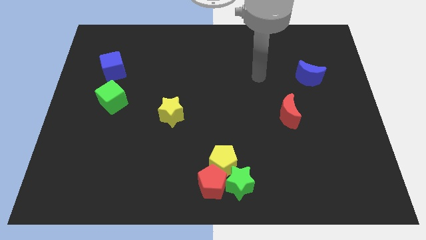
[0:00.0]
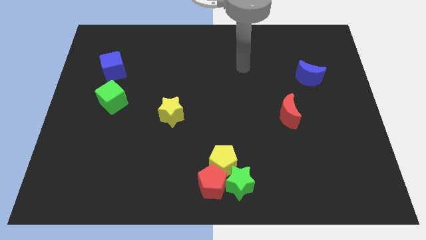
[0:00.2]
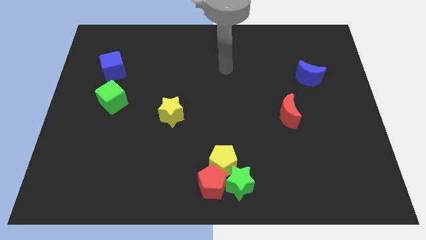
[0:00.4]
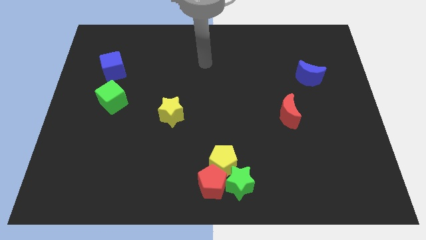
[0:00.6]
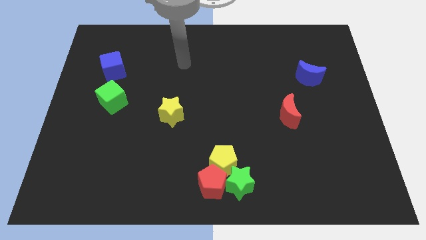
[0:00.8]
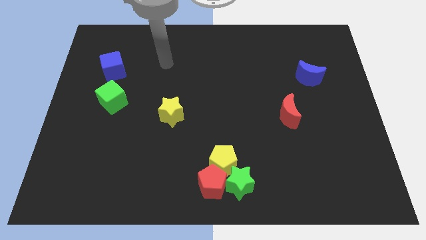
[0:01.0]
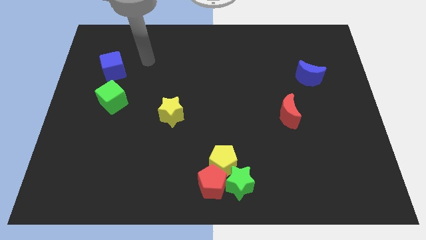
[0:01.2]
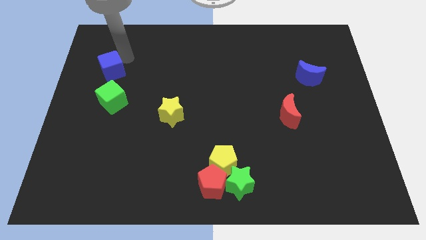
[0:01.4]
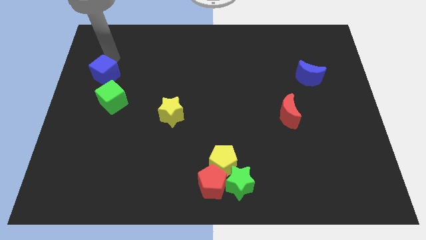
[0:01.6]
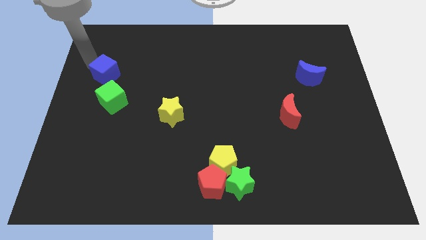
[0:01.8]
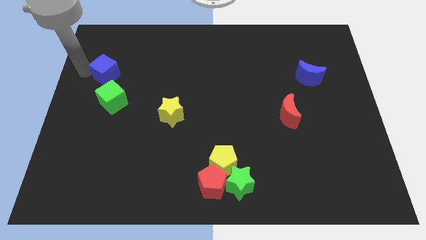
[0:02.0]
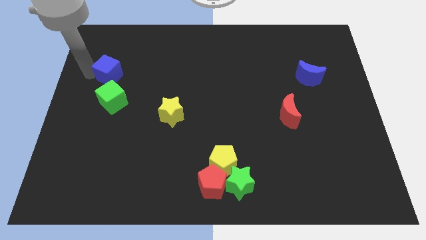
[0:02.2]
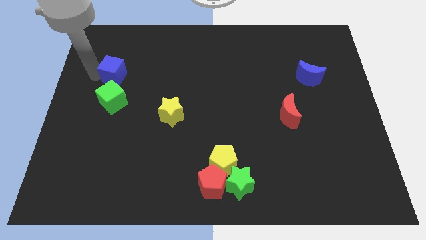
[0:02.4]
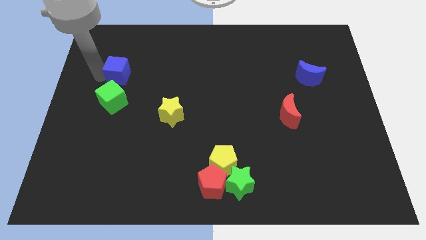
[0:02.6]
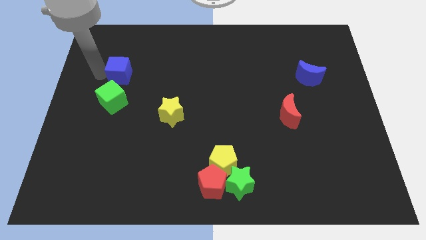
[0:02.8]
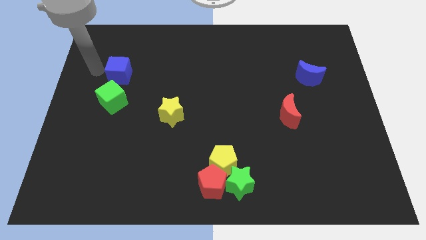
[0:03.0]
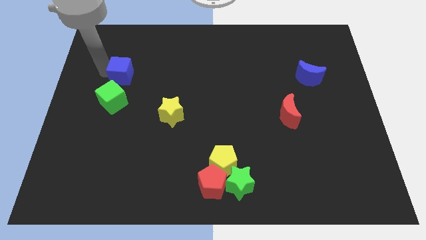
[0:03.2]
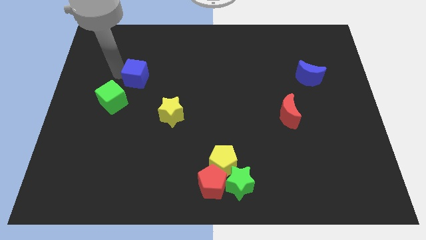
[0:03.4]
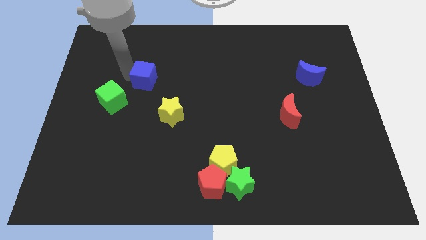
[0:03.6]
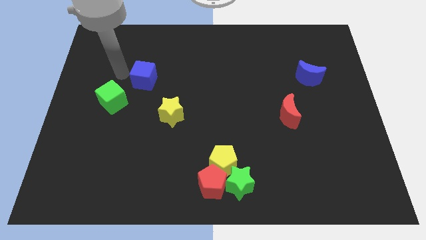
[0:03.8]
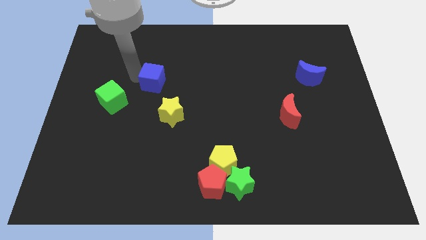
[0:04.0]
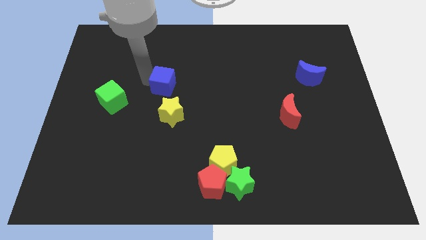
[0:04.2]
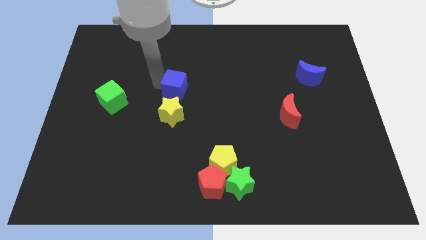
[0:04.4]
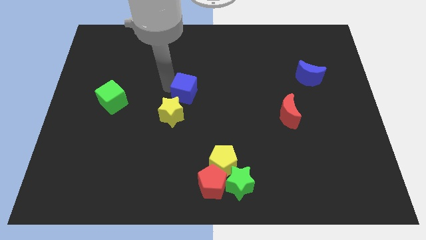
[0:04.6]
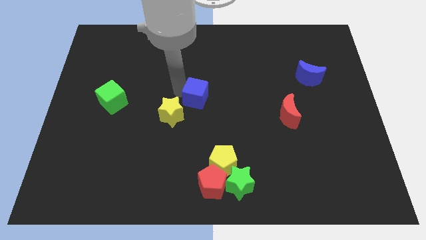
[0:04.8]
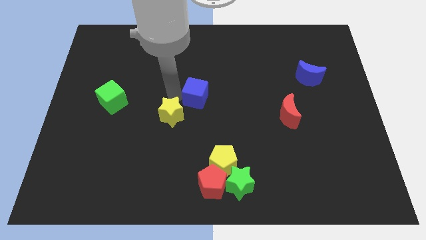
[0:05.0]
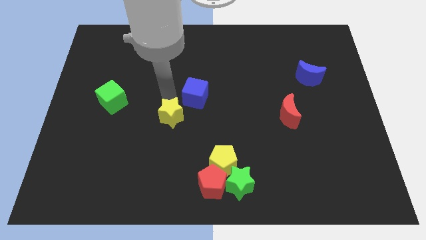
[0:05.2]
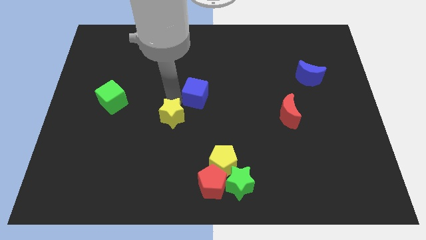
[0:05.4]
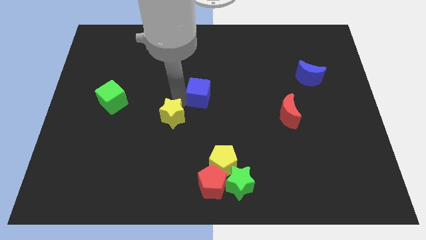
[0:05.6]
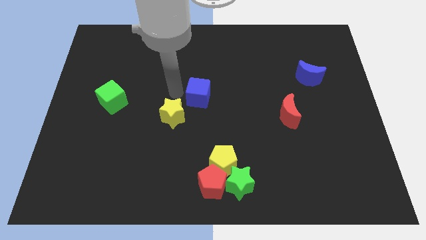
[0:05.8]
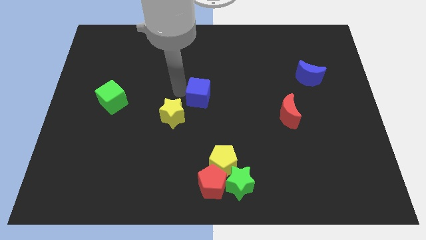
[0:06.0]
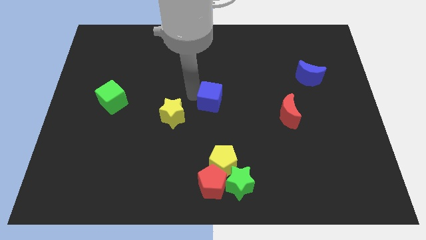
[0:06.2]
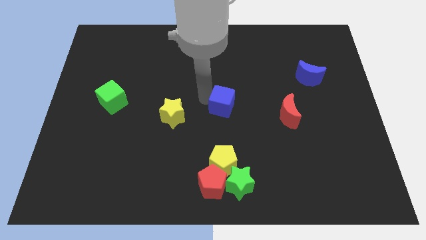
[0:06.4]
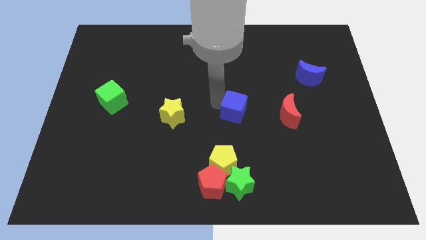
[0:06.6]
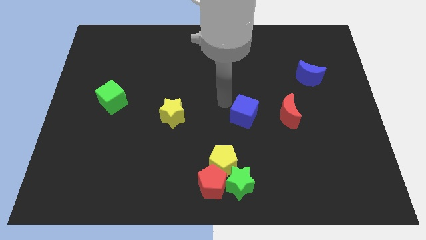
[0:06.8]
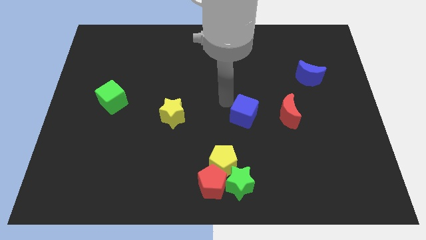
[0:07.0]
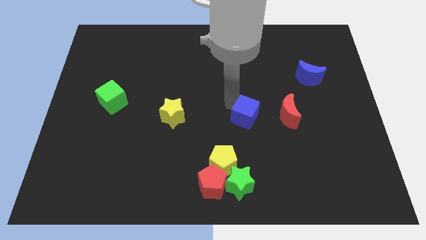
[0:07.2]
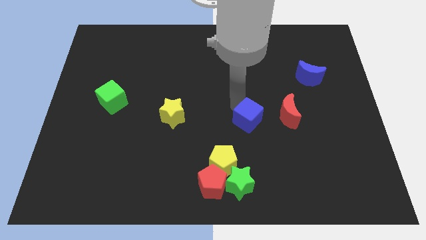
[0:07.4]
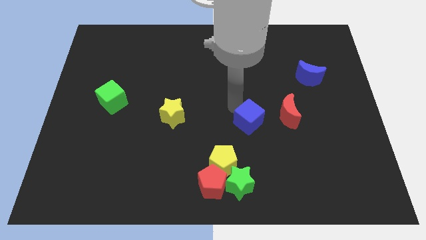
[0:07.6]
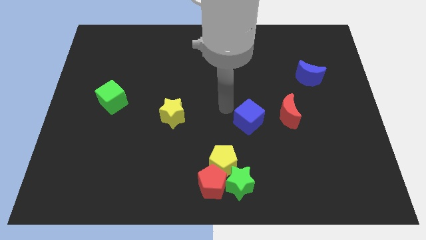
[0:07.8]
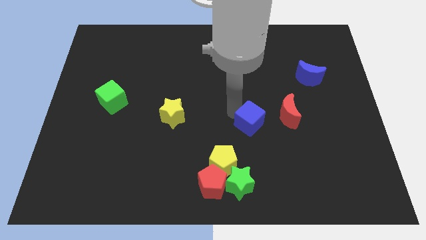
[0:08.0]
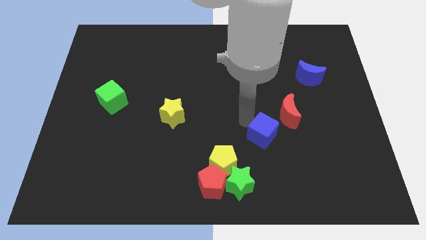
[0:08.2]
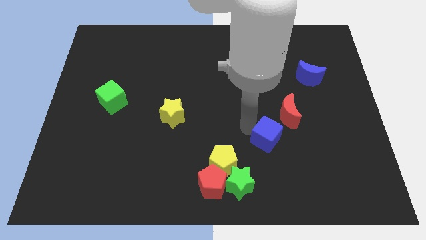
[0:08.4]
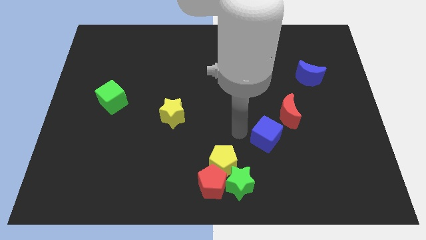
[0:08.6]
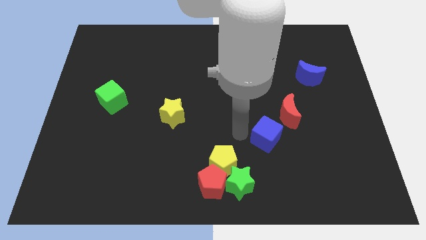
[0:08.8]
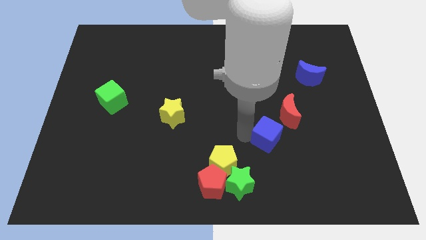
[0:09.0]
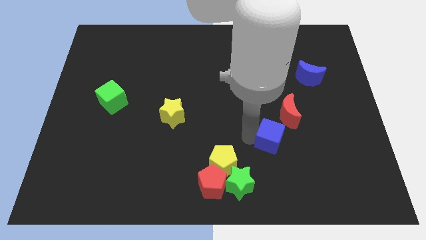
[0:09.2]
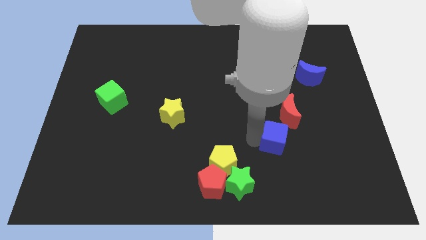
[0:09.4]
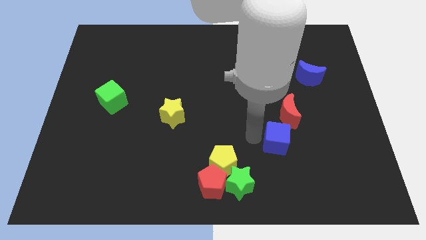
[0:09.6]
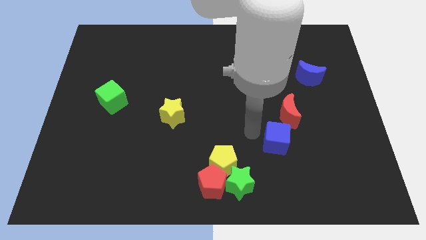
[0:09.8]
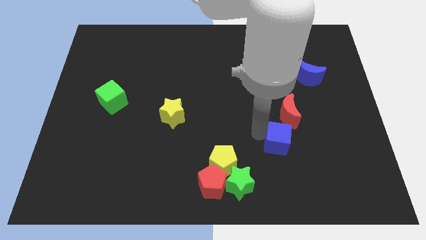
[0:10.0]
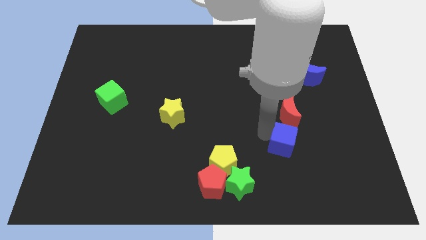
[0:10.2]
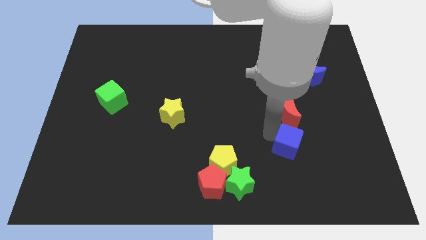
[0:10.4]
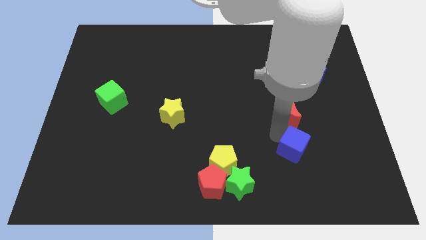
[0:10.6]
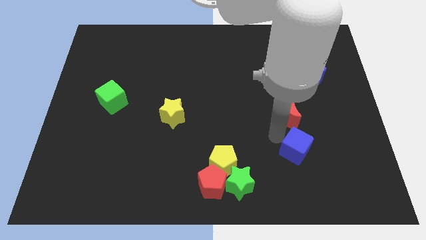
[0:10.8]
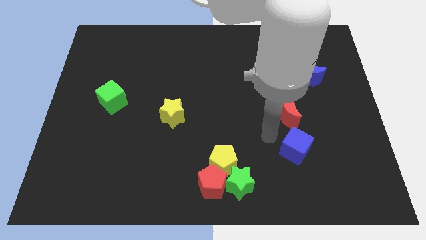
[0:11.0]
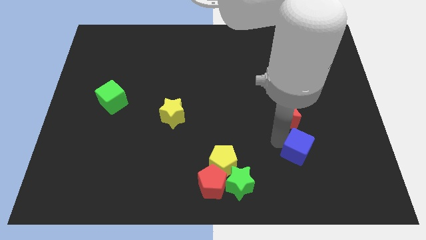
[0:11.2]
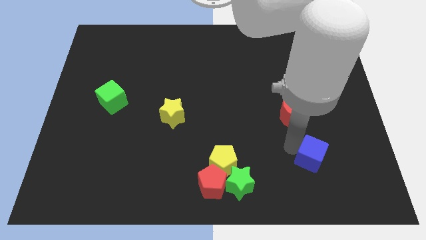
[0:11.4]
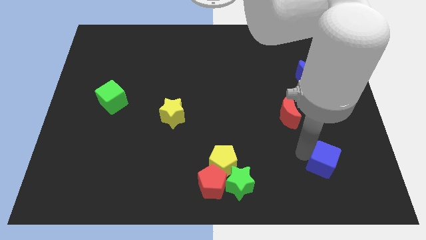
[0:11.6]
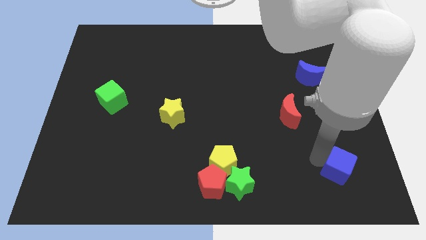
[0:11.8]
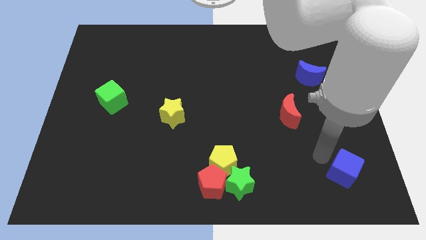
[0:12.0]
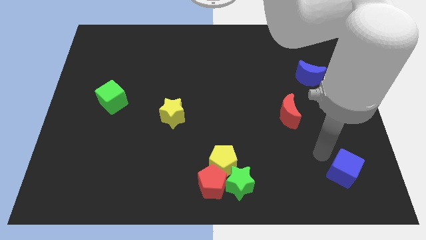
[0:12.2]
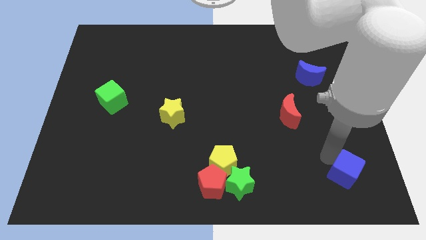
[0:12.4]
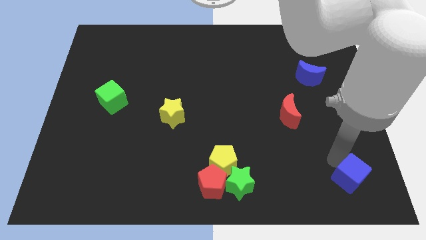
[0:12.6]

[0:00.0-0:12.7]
slide the blue cube to the bottom right
